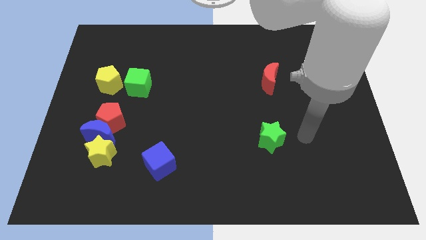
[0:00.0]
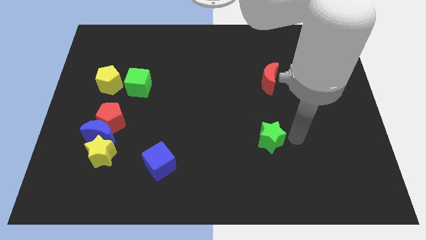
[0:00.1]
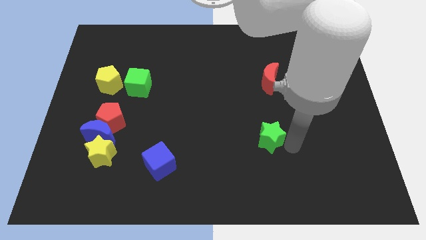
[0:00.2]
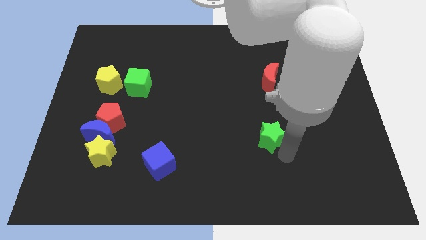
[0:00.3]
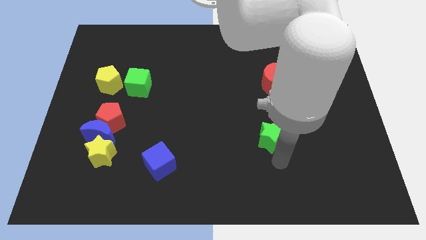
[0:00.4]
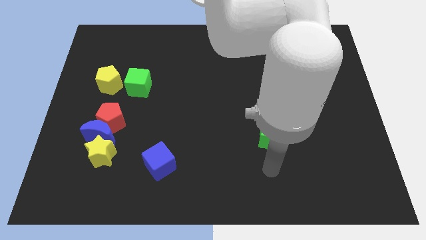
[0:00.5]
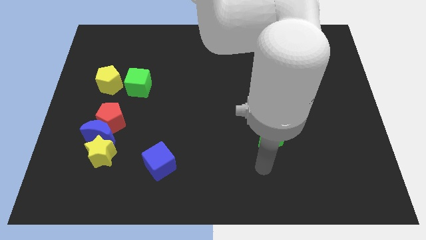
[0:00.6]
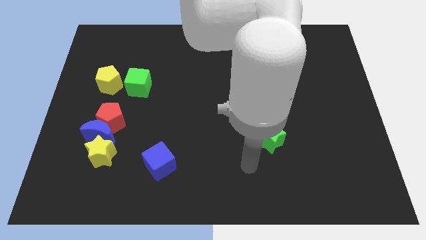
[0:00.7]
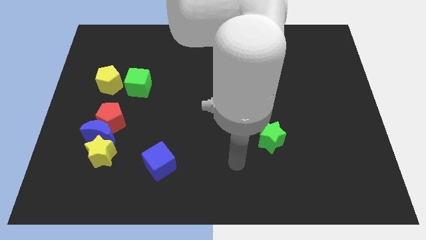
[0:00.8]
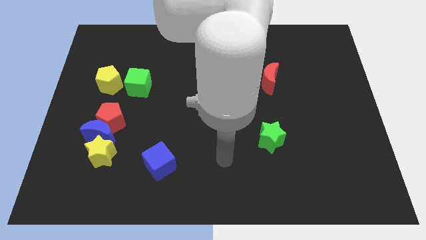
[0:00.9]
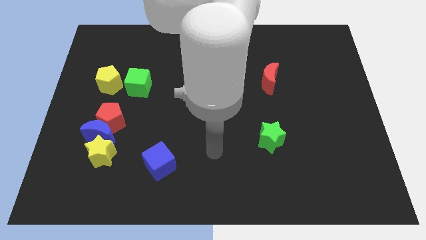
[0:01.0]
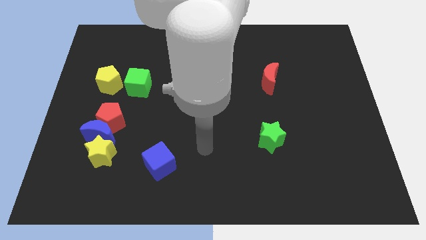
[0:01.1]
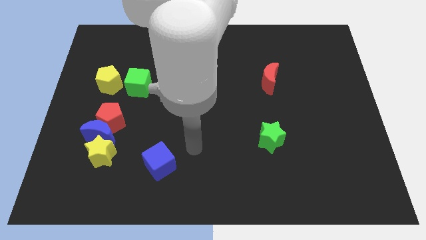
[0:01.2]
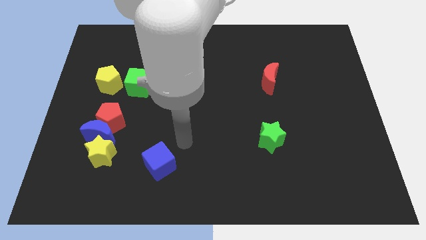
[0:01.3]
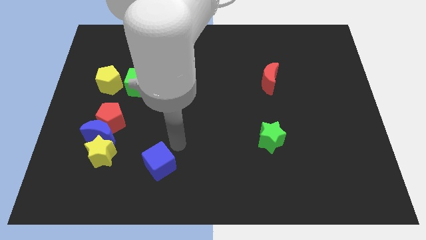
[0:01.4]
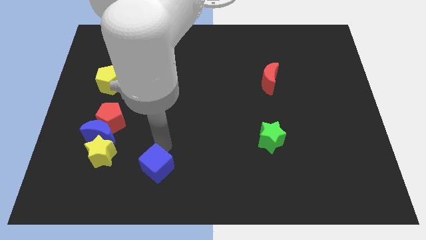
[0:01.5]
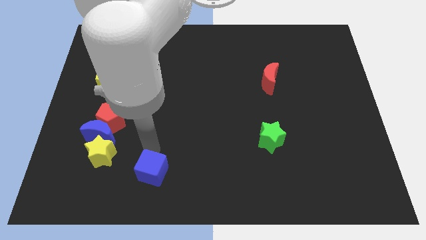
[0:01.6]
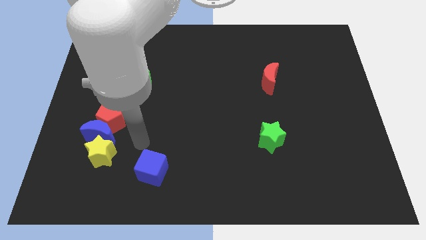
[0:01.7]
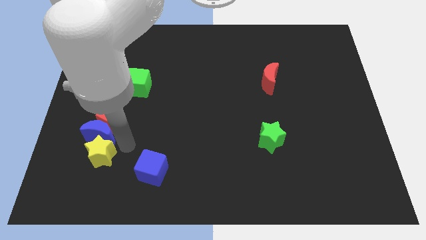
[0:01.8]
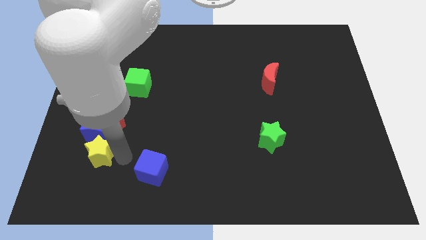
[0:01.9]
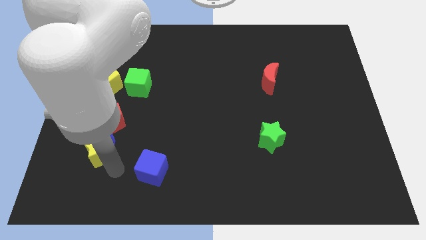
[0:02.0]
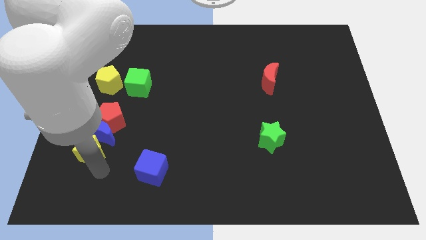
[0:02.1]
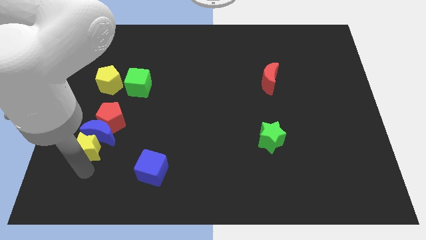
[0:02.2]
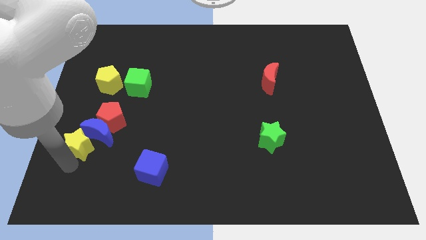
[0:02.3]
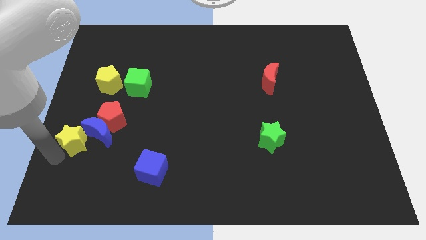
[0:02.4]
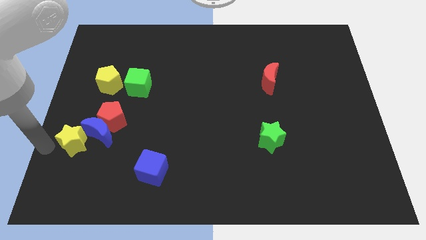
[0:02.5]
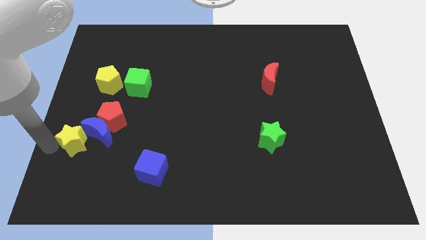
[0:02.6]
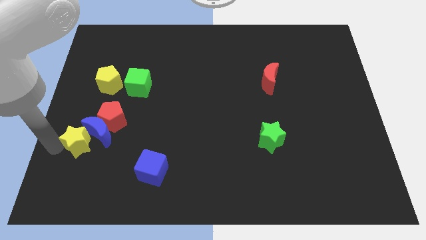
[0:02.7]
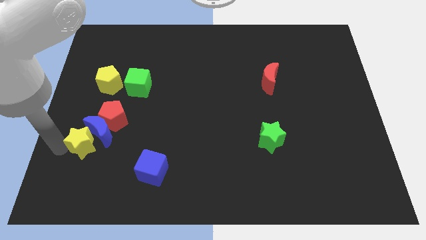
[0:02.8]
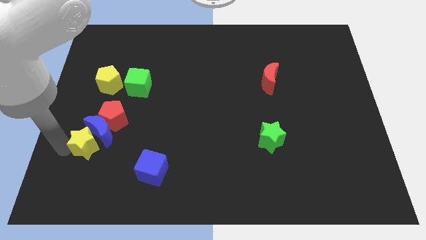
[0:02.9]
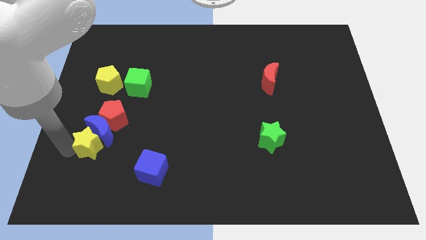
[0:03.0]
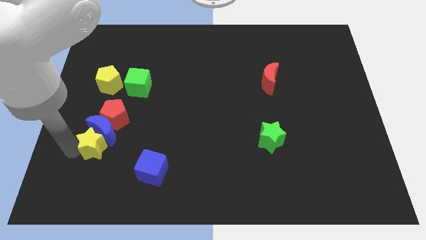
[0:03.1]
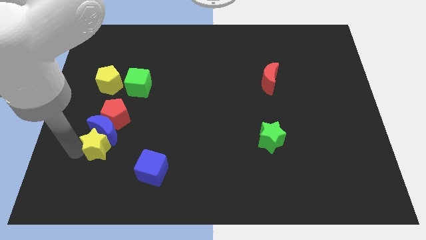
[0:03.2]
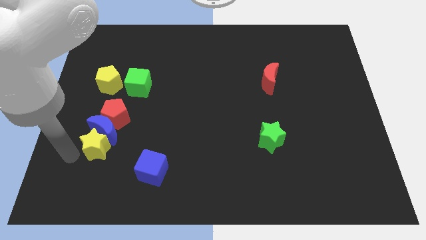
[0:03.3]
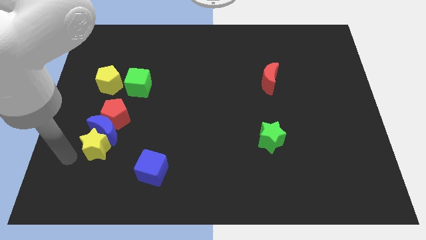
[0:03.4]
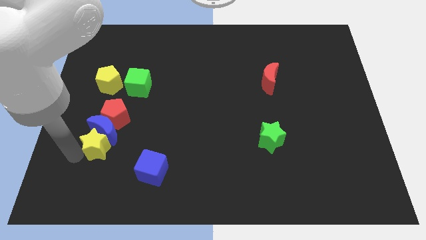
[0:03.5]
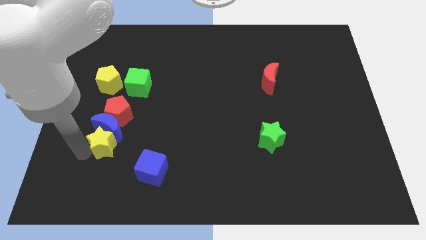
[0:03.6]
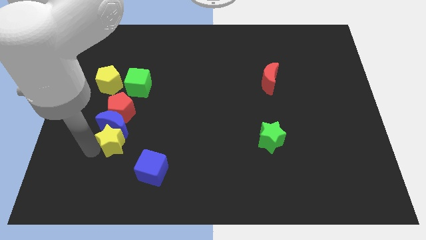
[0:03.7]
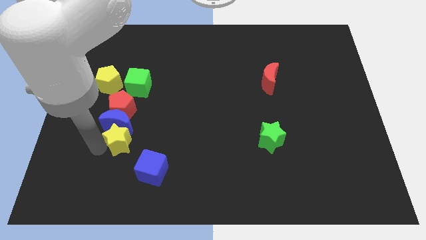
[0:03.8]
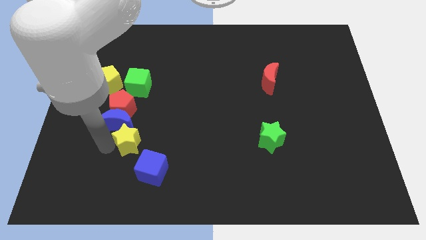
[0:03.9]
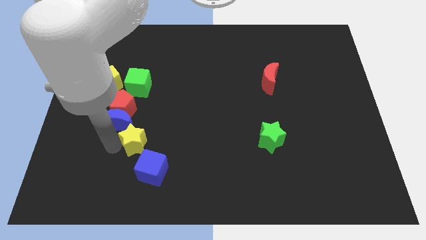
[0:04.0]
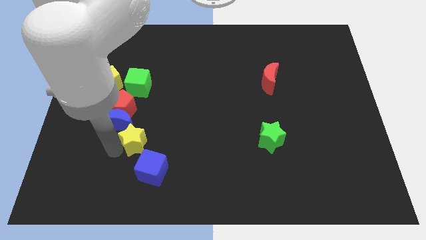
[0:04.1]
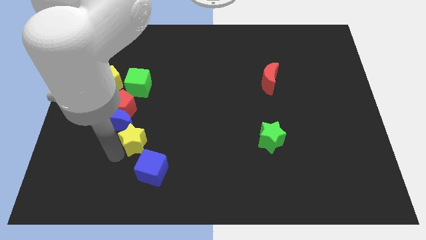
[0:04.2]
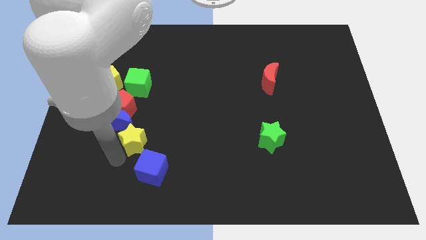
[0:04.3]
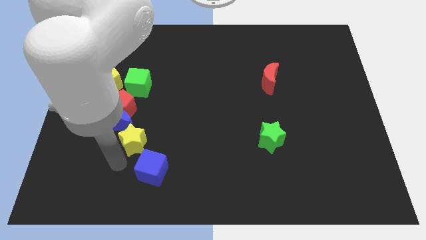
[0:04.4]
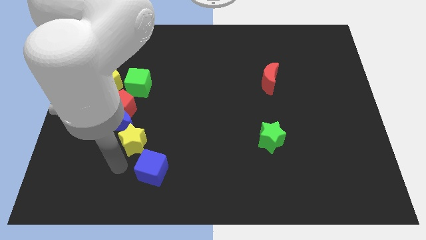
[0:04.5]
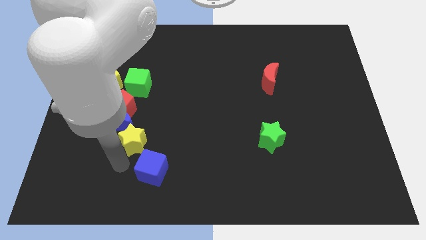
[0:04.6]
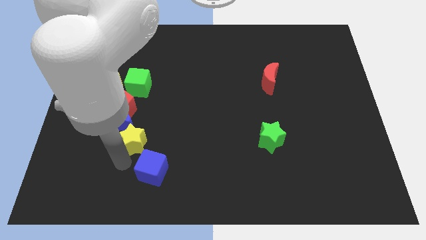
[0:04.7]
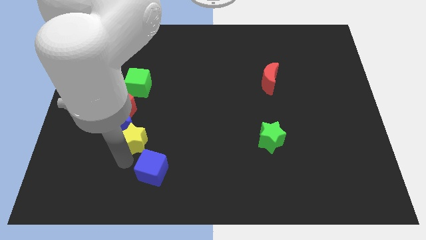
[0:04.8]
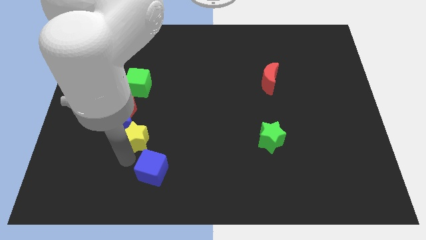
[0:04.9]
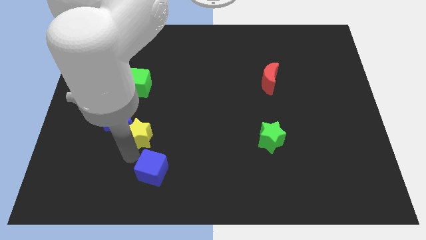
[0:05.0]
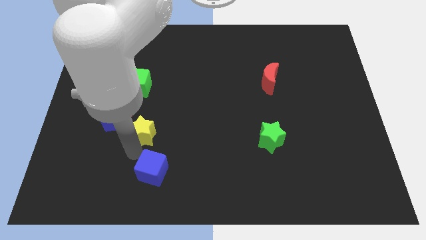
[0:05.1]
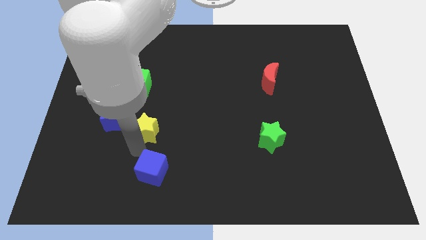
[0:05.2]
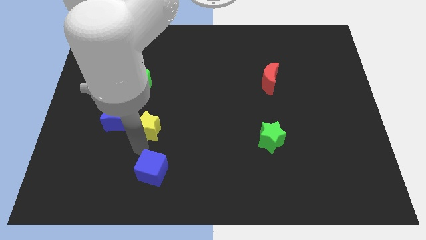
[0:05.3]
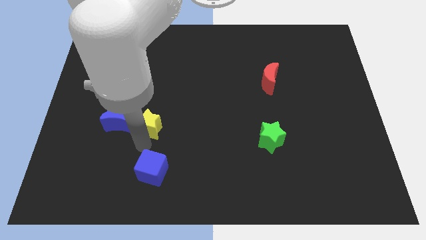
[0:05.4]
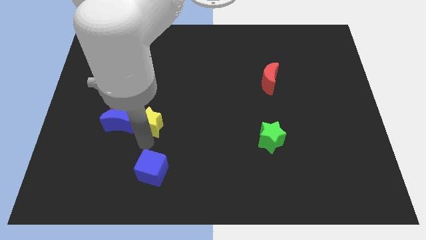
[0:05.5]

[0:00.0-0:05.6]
put the yellow star to the right of the red pentagon

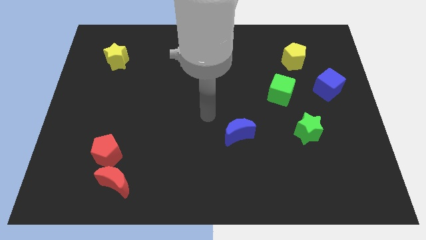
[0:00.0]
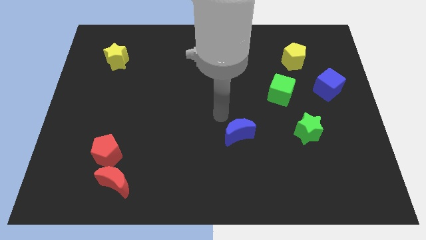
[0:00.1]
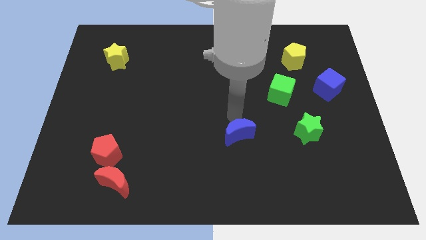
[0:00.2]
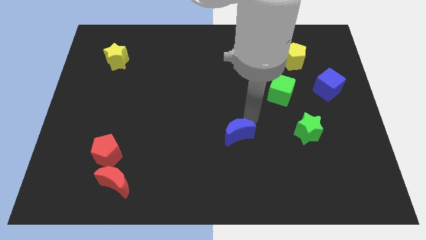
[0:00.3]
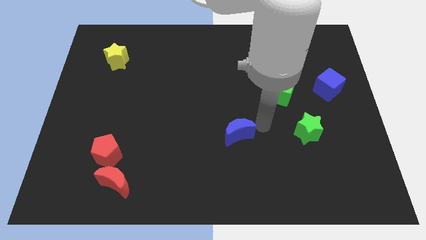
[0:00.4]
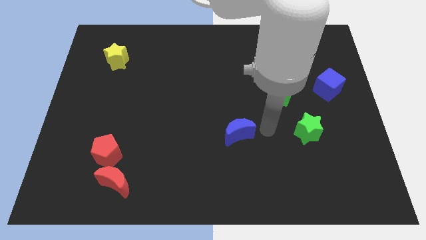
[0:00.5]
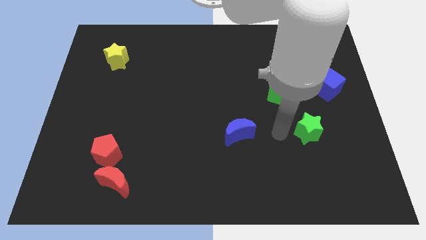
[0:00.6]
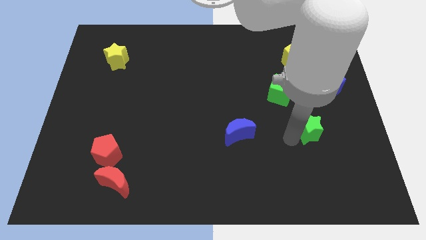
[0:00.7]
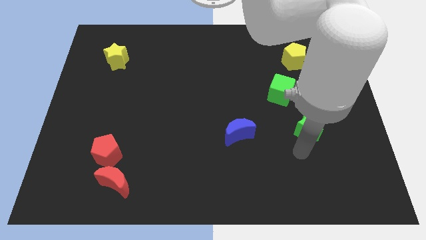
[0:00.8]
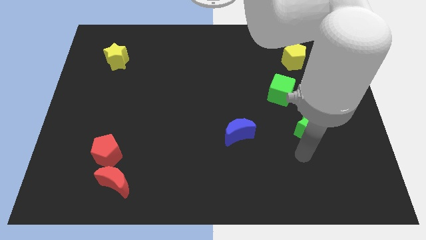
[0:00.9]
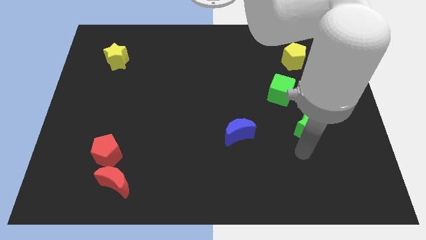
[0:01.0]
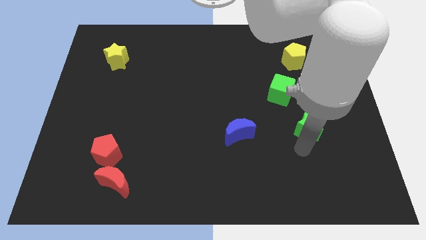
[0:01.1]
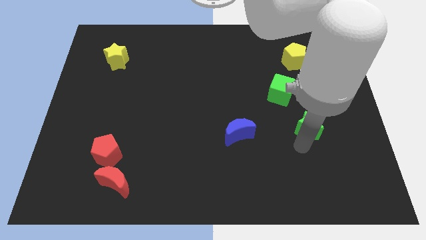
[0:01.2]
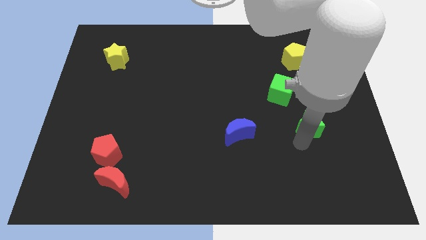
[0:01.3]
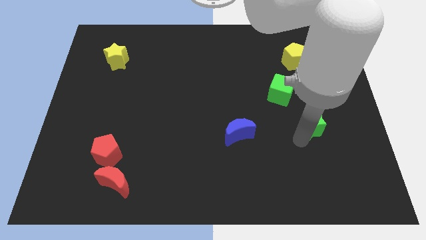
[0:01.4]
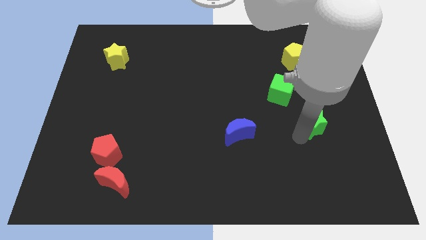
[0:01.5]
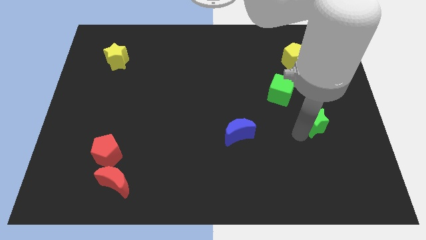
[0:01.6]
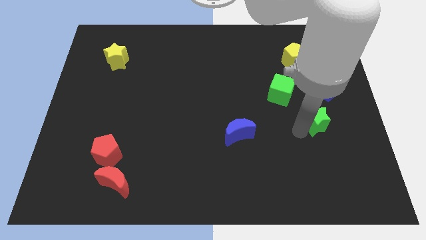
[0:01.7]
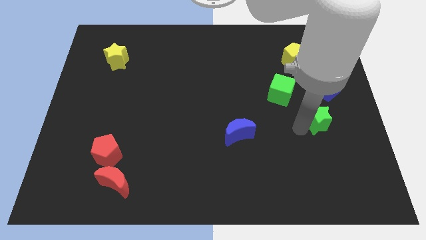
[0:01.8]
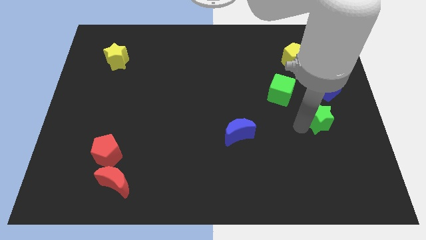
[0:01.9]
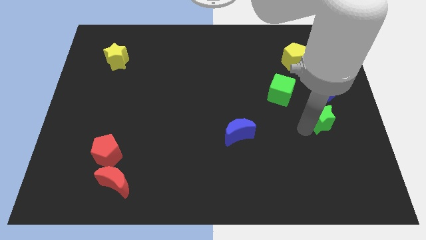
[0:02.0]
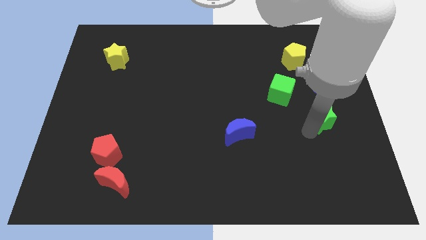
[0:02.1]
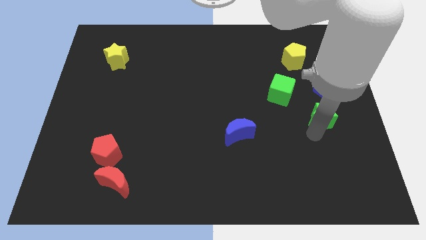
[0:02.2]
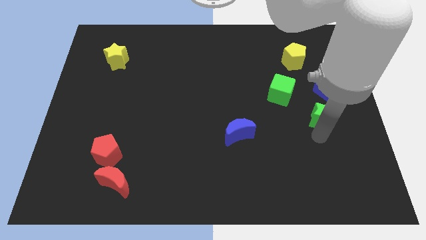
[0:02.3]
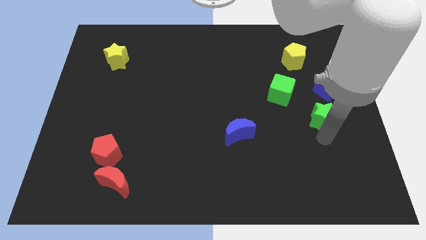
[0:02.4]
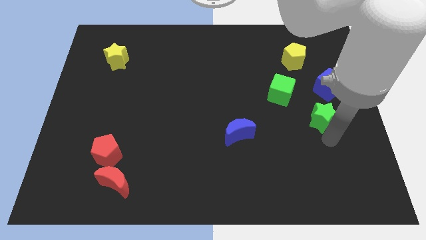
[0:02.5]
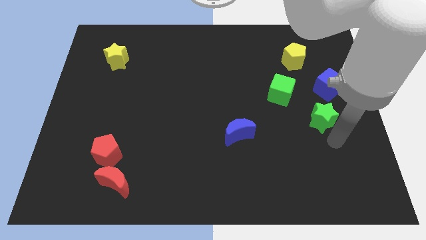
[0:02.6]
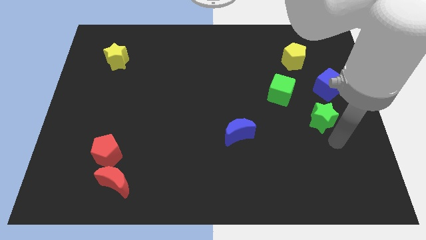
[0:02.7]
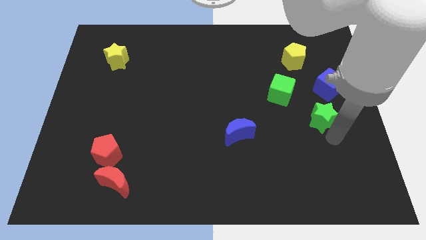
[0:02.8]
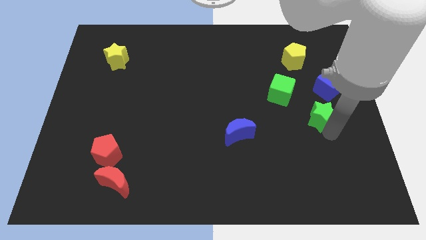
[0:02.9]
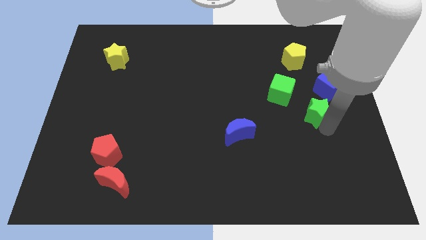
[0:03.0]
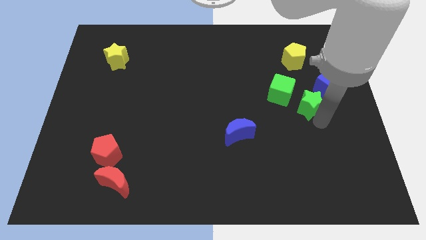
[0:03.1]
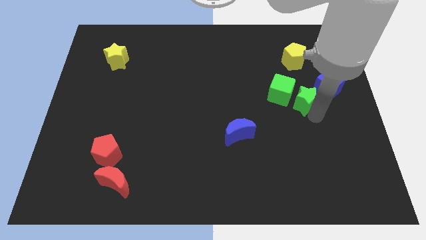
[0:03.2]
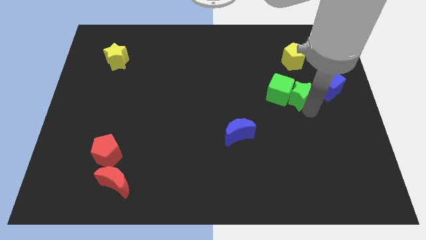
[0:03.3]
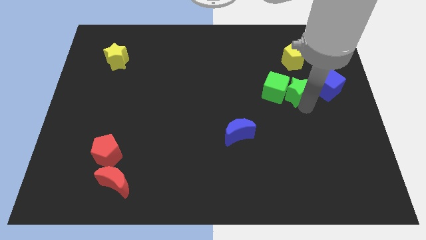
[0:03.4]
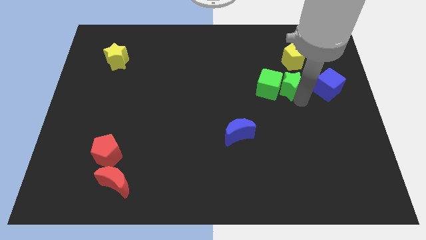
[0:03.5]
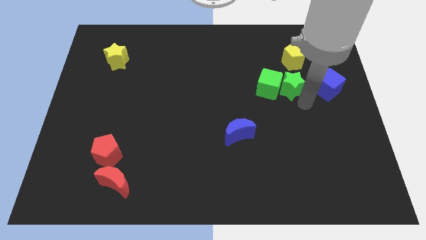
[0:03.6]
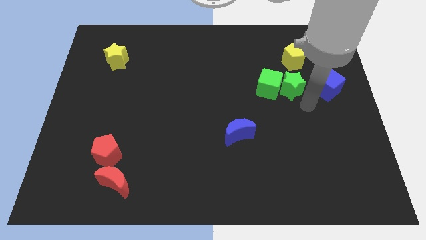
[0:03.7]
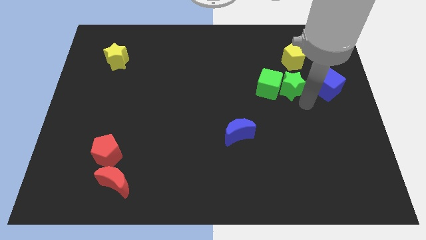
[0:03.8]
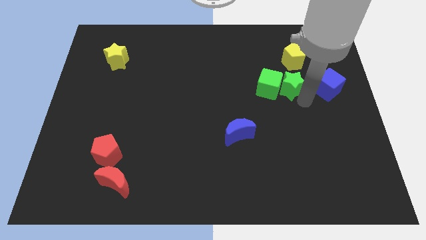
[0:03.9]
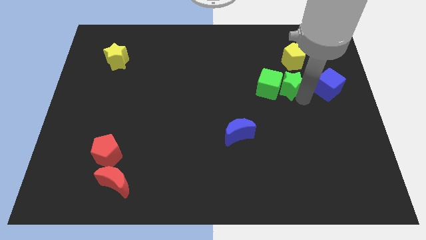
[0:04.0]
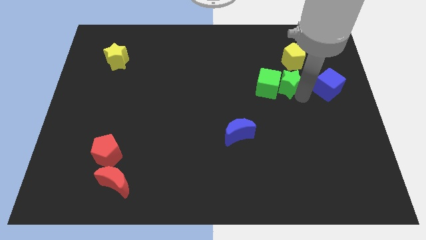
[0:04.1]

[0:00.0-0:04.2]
push the green star to the bottom left side of the yellow pentagon
